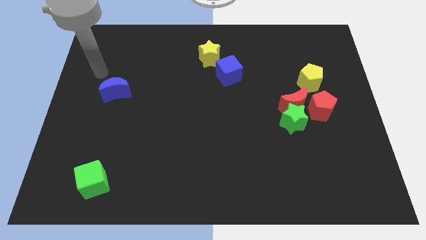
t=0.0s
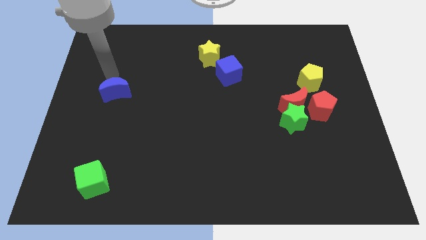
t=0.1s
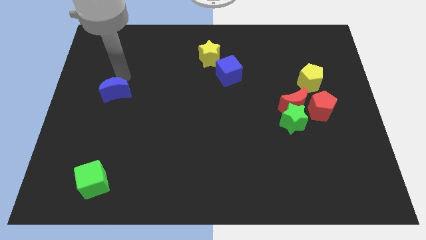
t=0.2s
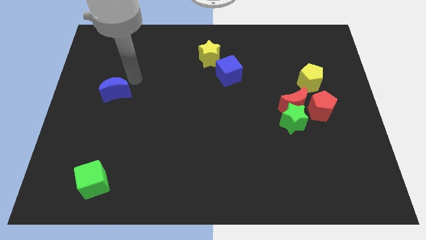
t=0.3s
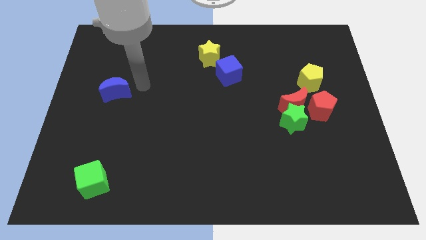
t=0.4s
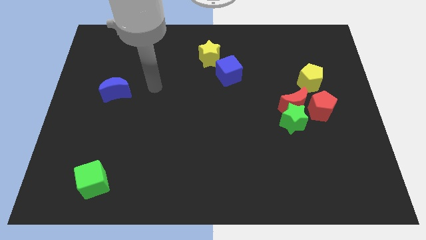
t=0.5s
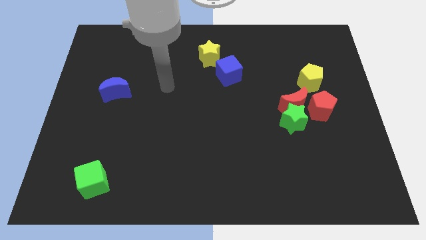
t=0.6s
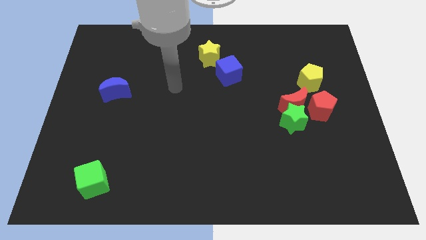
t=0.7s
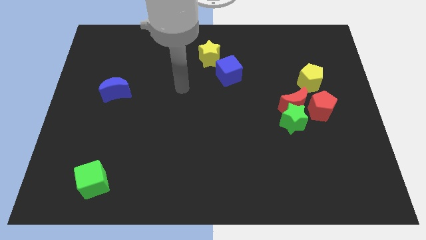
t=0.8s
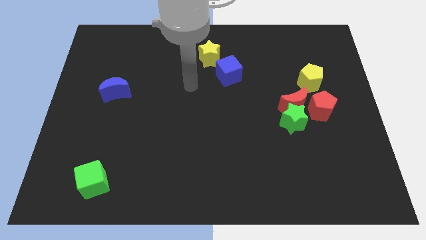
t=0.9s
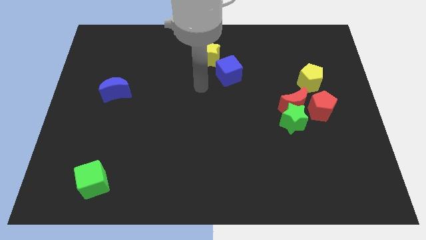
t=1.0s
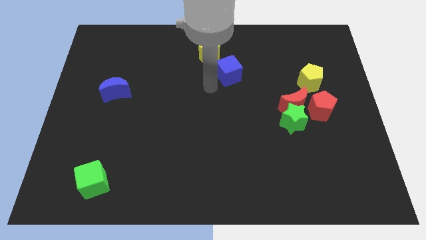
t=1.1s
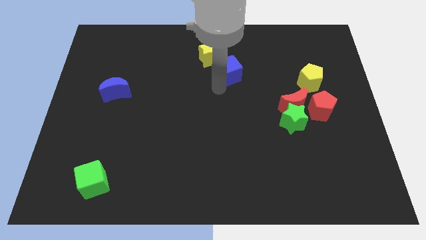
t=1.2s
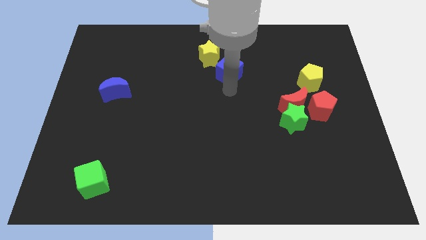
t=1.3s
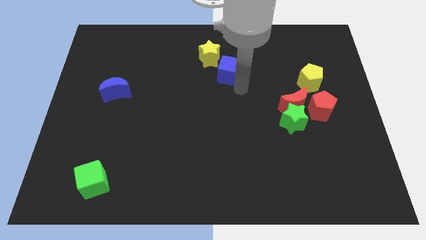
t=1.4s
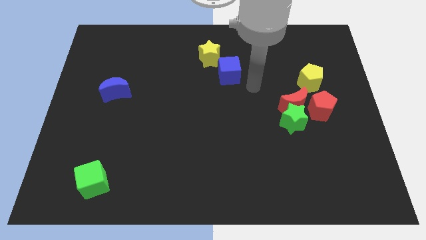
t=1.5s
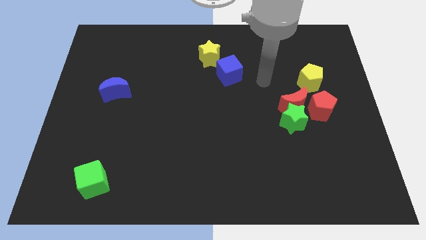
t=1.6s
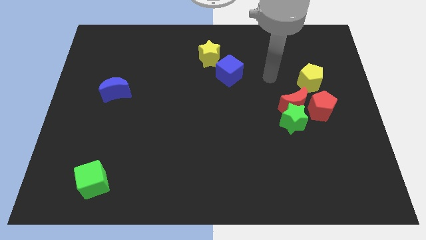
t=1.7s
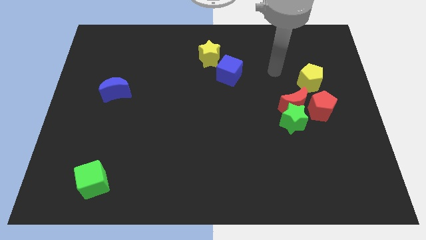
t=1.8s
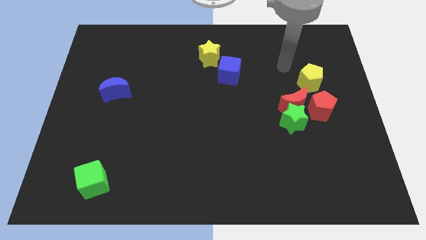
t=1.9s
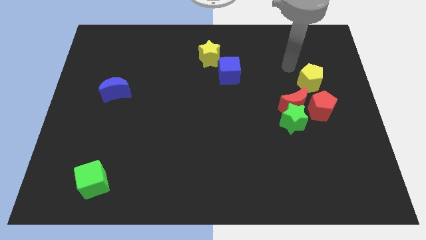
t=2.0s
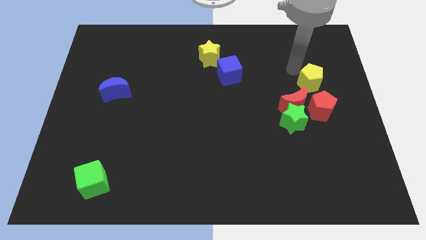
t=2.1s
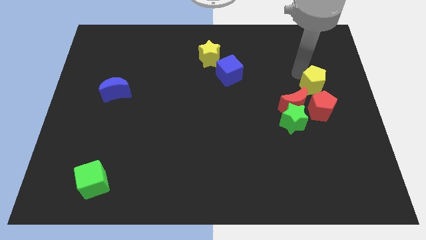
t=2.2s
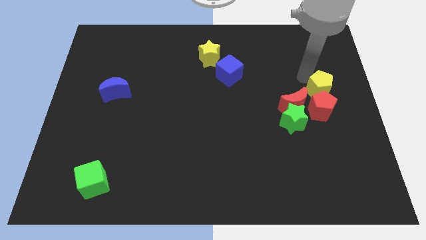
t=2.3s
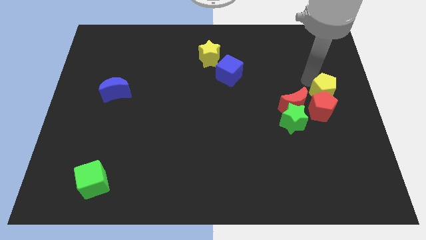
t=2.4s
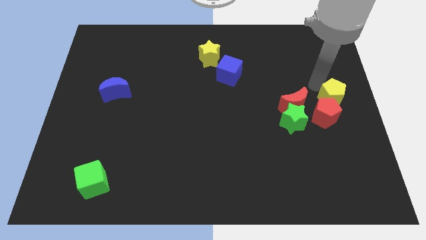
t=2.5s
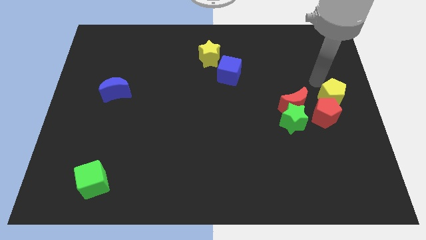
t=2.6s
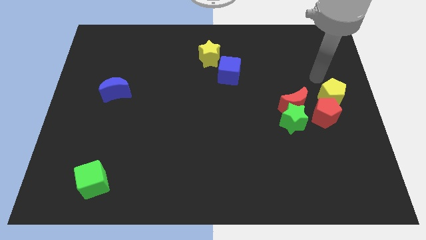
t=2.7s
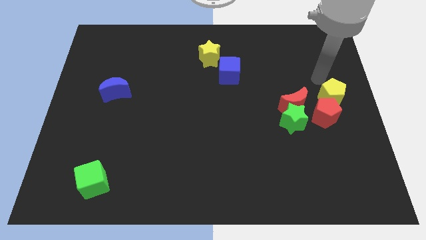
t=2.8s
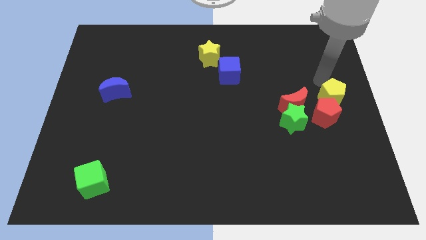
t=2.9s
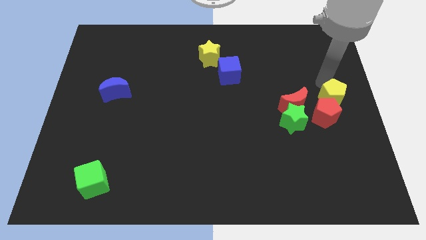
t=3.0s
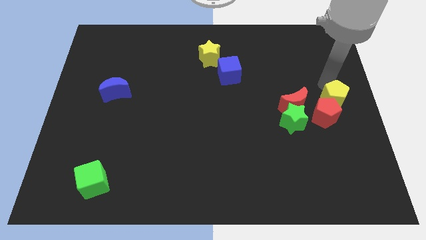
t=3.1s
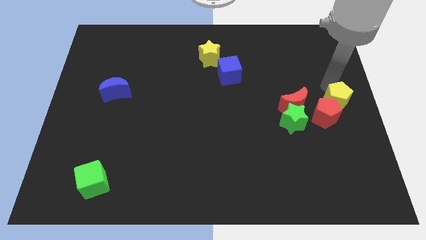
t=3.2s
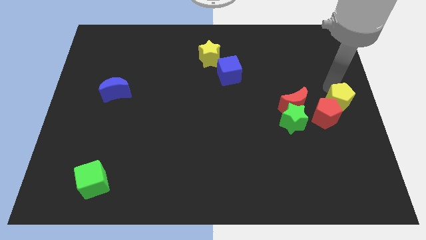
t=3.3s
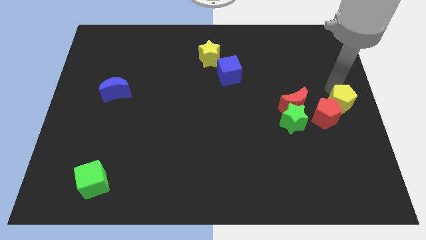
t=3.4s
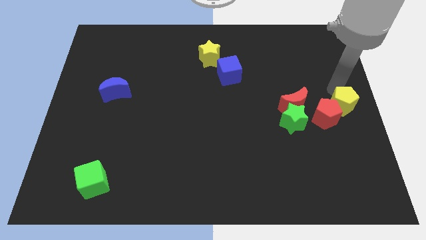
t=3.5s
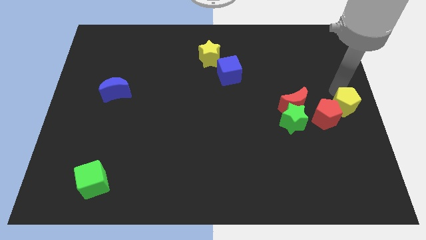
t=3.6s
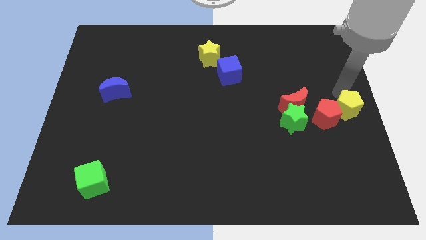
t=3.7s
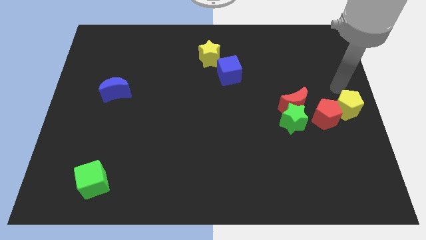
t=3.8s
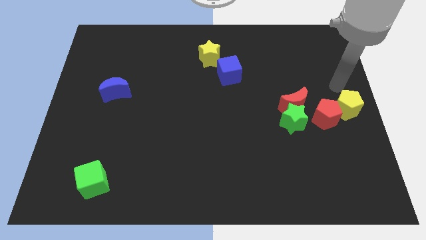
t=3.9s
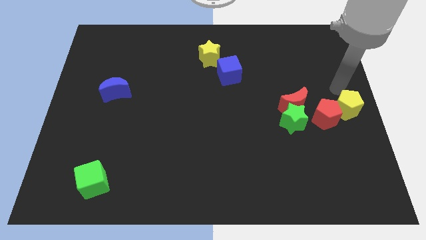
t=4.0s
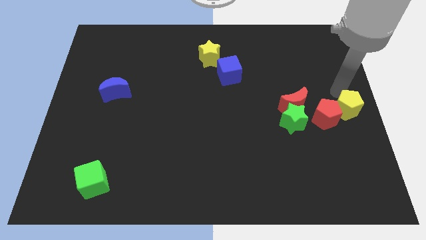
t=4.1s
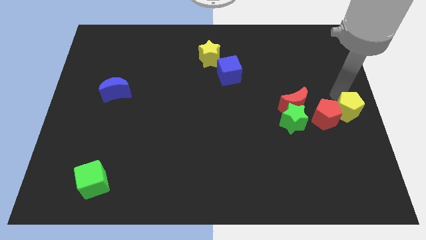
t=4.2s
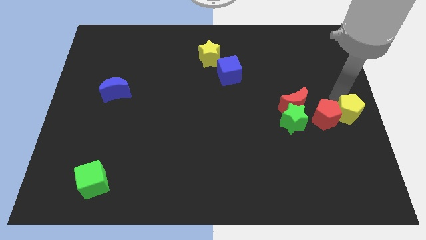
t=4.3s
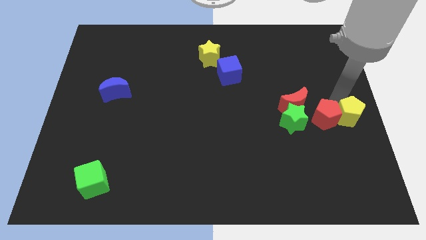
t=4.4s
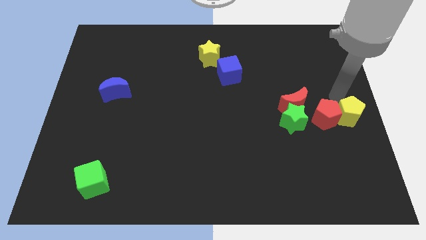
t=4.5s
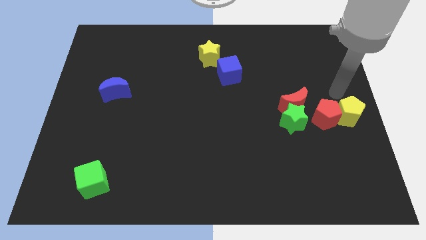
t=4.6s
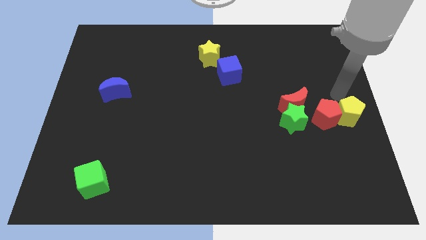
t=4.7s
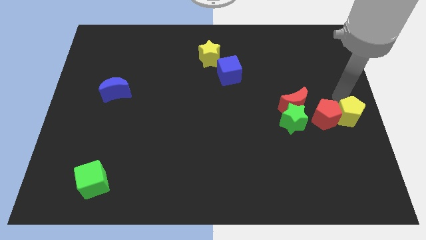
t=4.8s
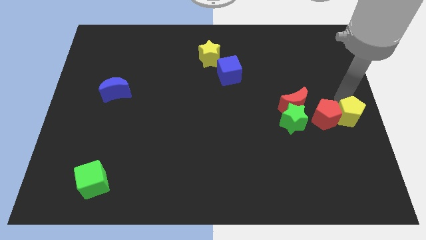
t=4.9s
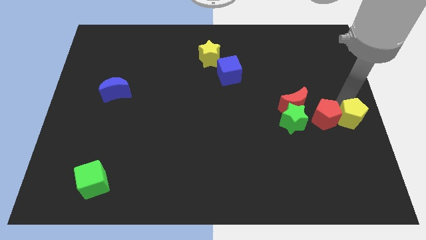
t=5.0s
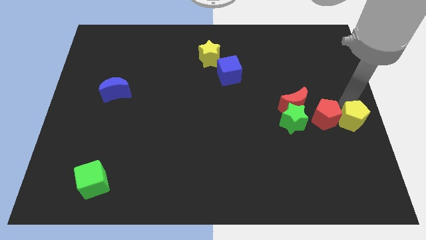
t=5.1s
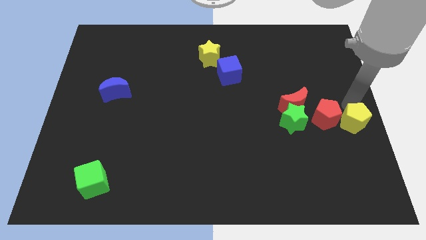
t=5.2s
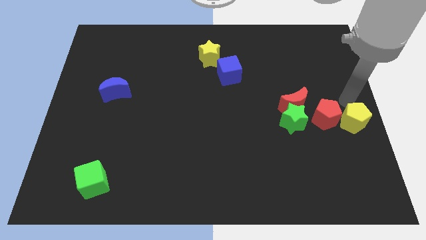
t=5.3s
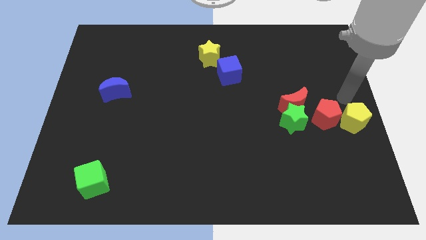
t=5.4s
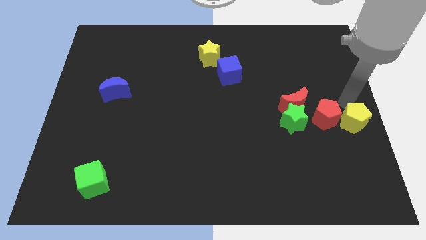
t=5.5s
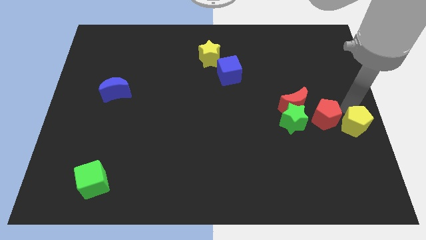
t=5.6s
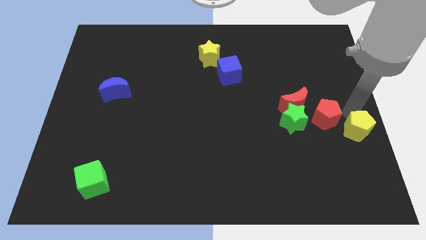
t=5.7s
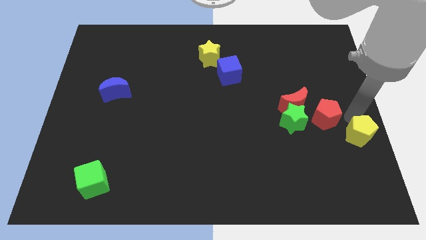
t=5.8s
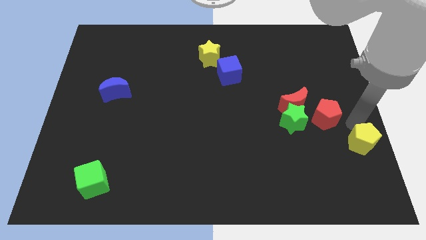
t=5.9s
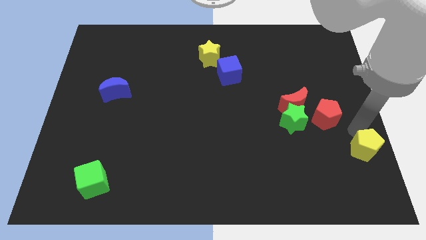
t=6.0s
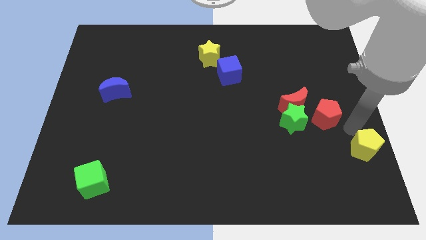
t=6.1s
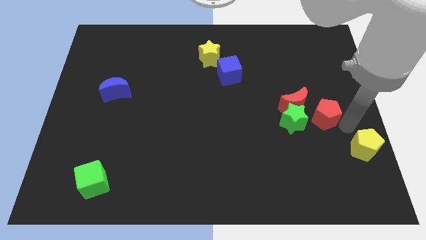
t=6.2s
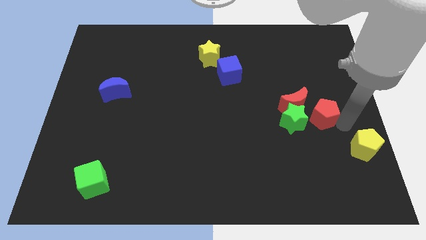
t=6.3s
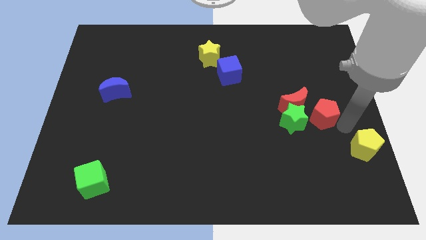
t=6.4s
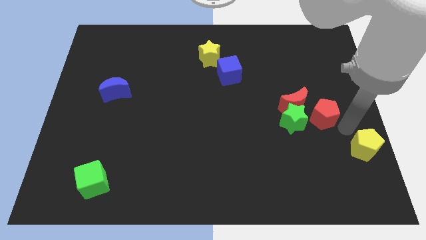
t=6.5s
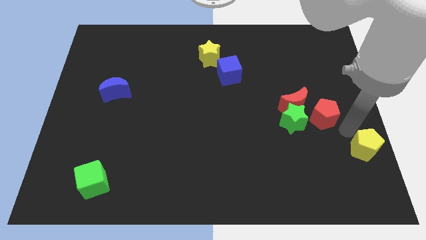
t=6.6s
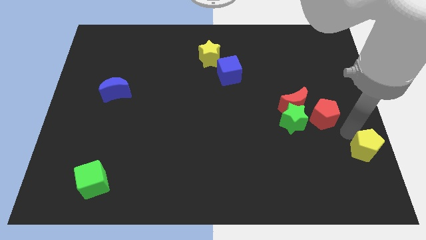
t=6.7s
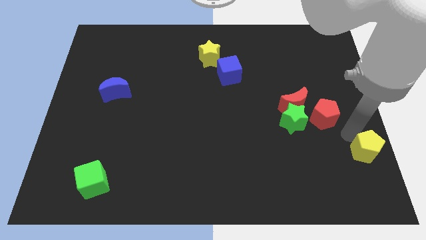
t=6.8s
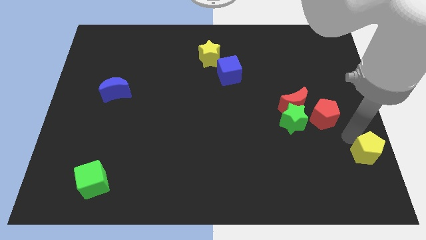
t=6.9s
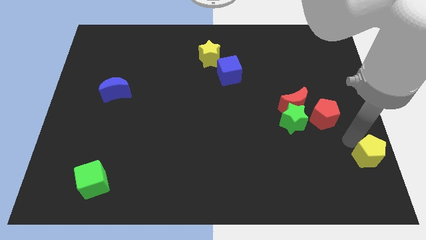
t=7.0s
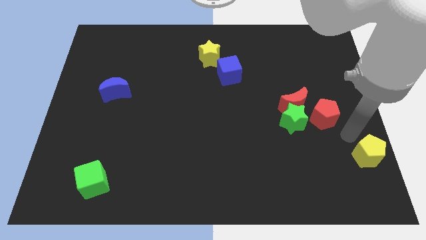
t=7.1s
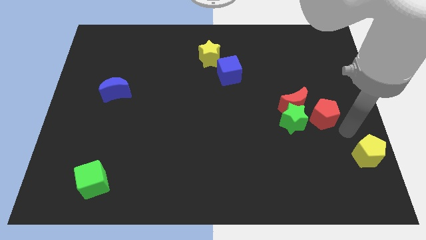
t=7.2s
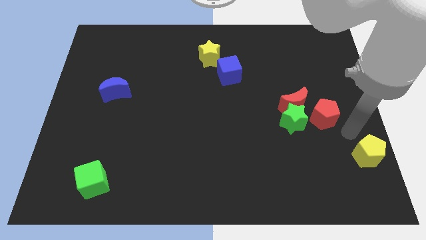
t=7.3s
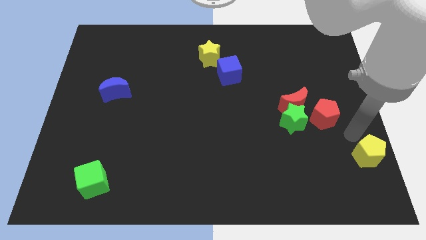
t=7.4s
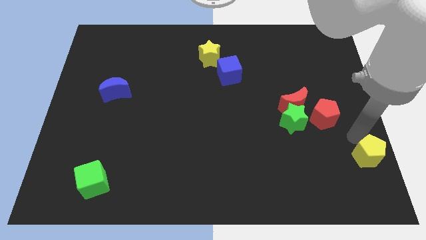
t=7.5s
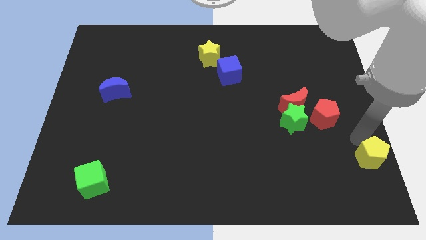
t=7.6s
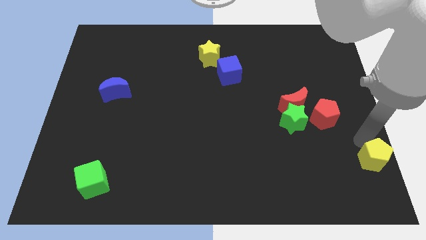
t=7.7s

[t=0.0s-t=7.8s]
slide the yellow pentagon to the bottom right of the board
